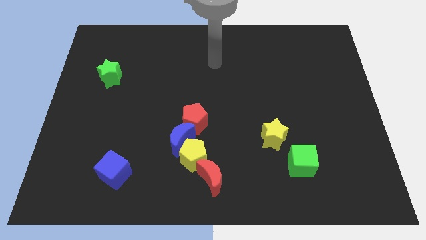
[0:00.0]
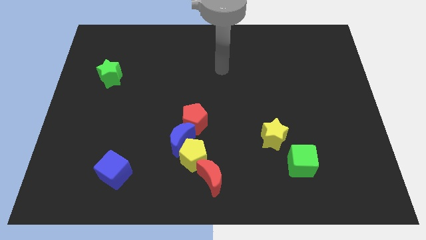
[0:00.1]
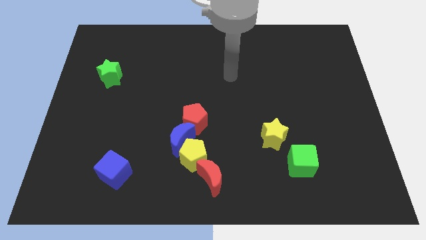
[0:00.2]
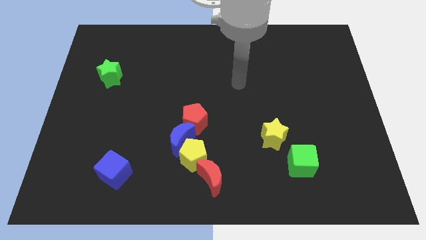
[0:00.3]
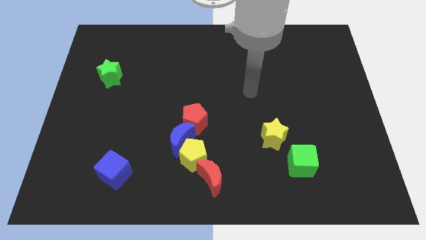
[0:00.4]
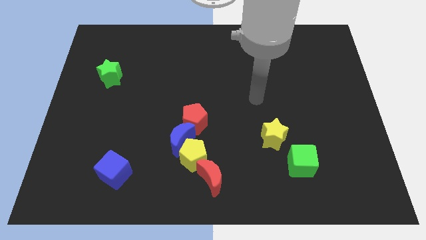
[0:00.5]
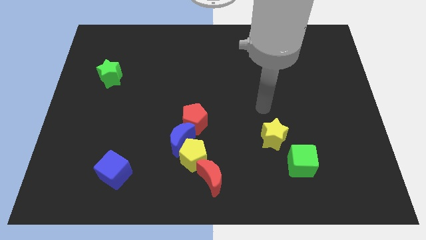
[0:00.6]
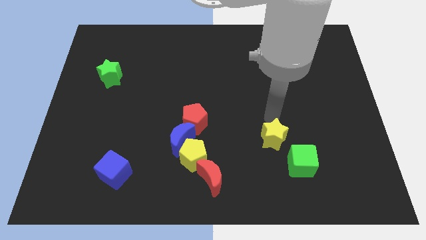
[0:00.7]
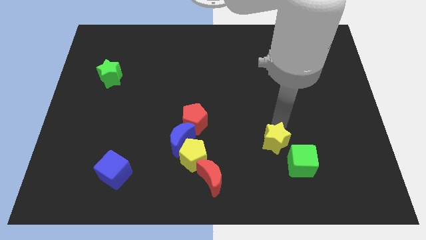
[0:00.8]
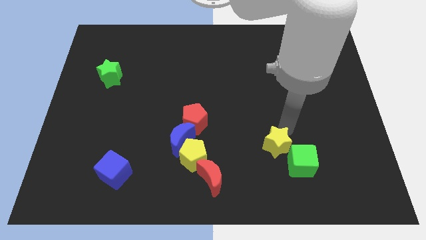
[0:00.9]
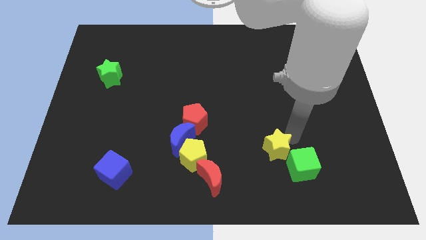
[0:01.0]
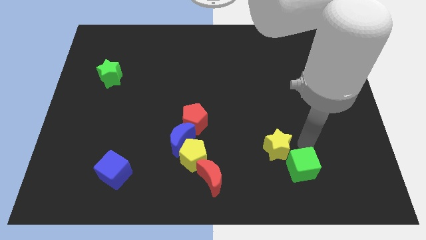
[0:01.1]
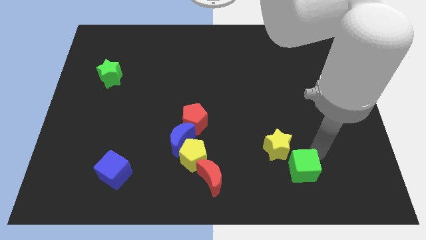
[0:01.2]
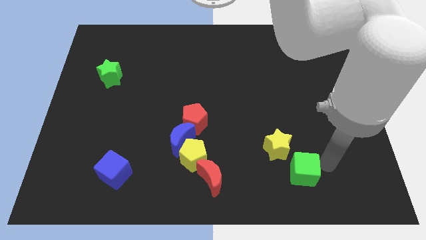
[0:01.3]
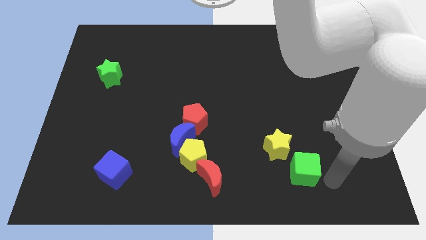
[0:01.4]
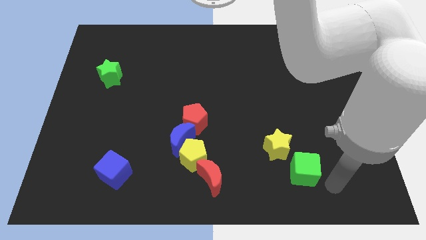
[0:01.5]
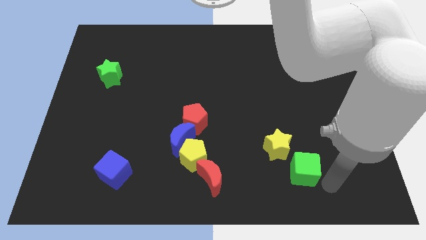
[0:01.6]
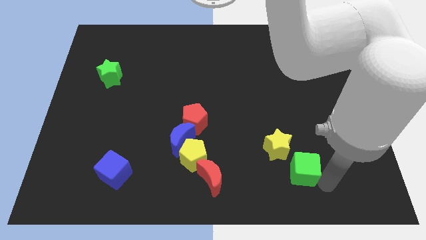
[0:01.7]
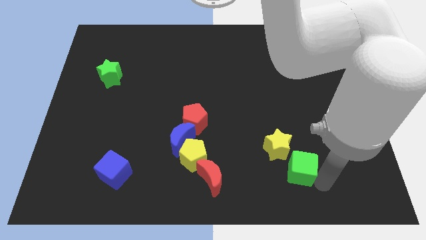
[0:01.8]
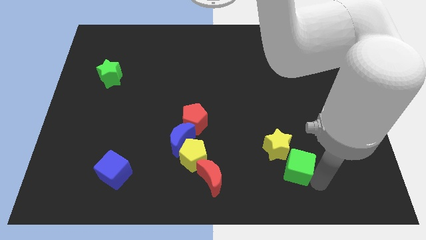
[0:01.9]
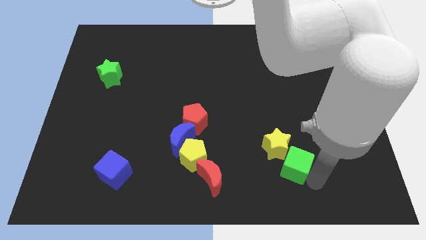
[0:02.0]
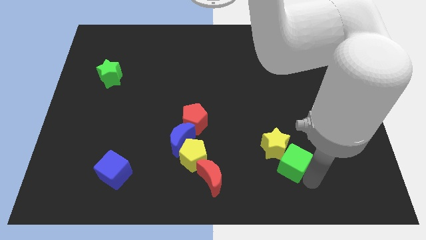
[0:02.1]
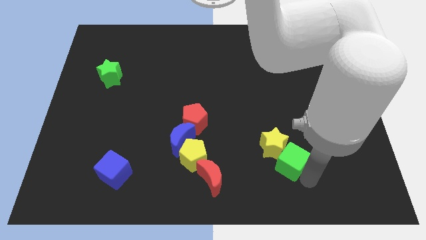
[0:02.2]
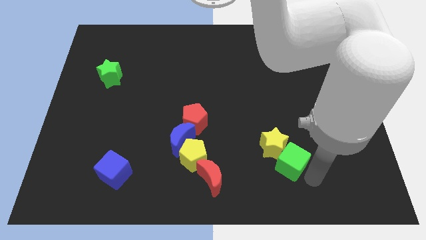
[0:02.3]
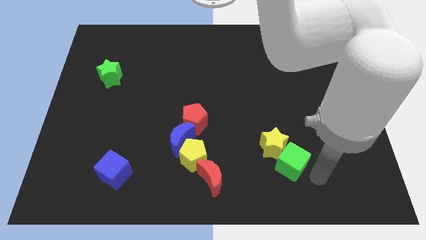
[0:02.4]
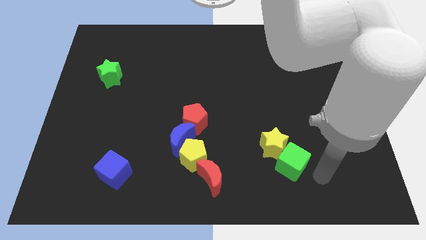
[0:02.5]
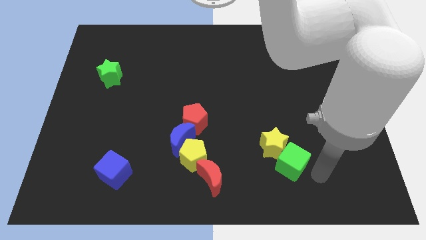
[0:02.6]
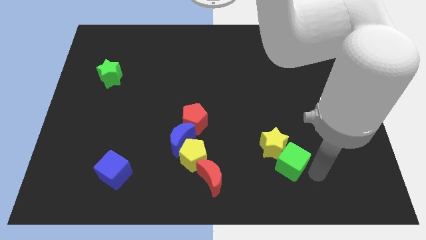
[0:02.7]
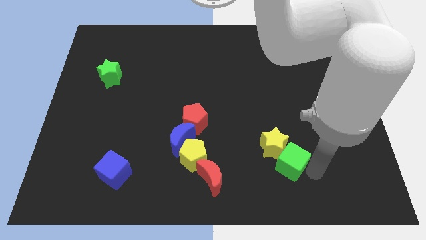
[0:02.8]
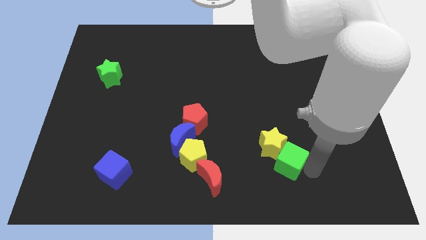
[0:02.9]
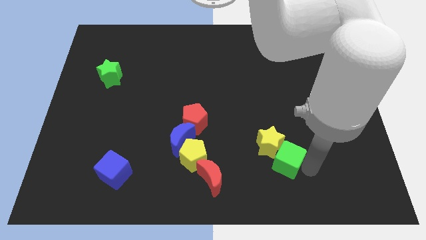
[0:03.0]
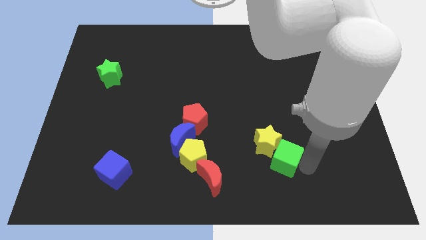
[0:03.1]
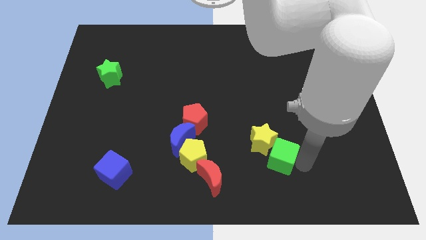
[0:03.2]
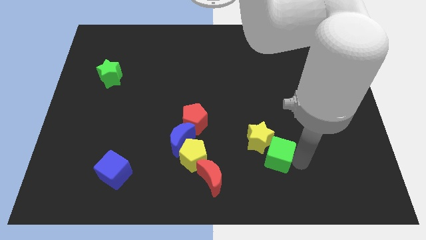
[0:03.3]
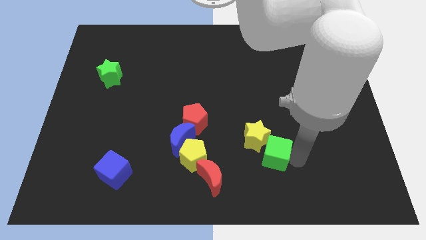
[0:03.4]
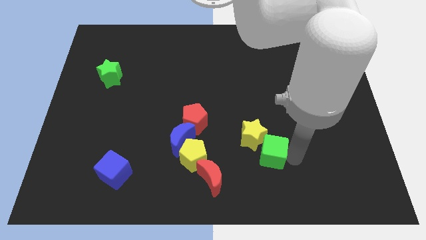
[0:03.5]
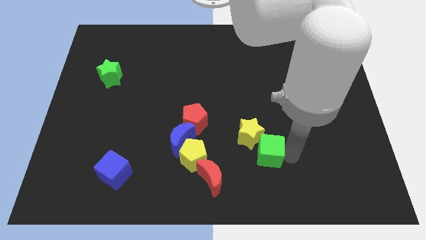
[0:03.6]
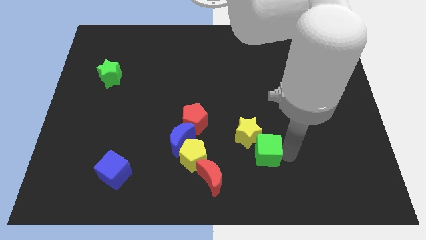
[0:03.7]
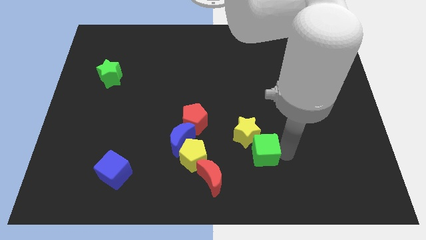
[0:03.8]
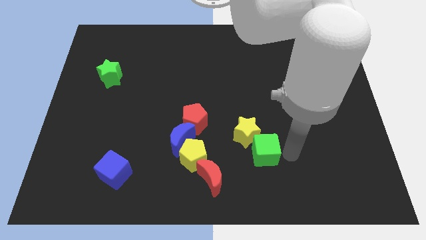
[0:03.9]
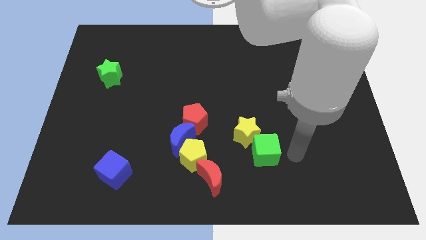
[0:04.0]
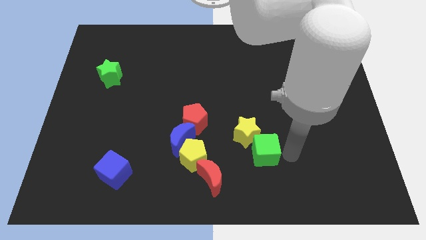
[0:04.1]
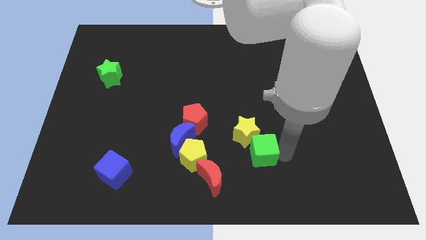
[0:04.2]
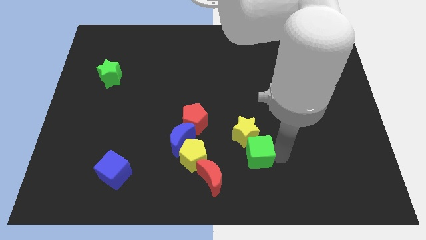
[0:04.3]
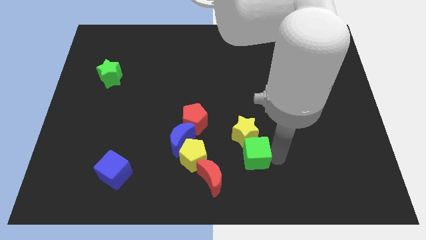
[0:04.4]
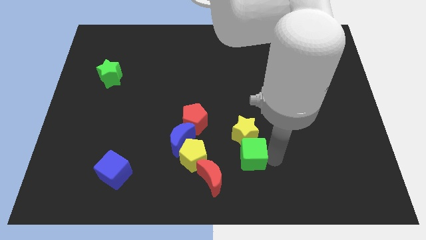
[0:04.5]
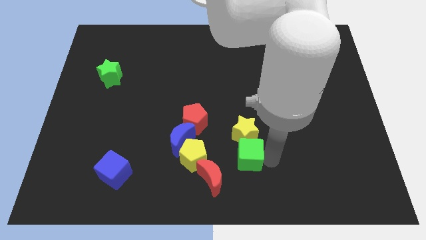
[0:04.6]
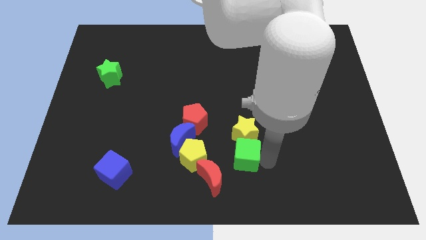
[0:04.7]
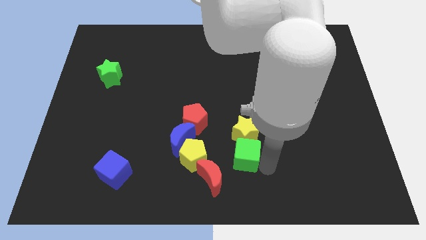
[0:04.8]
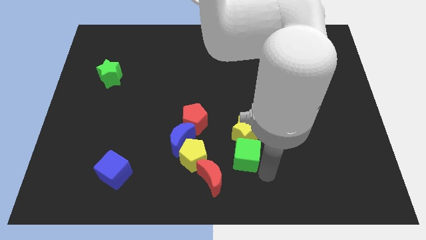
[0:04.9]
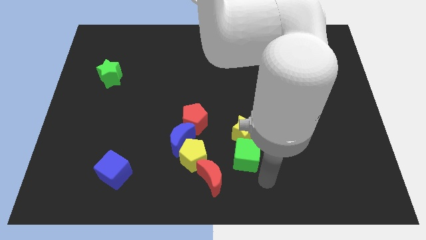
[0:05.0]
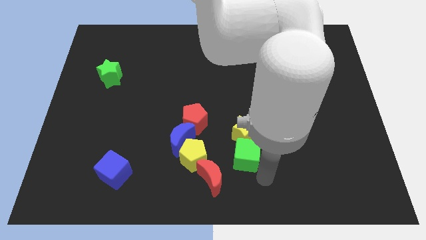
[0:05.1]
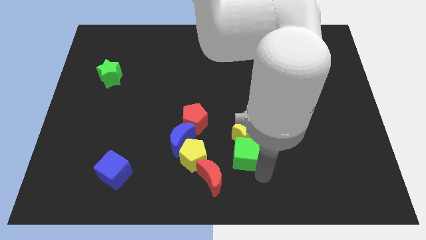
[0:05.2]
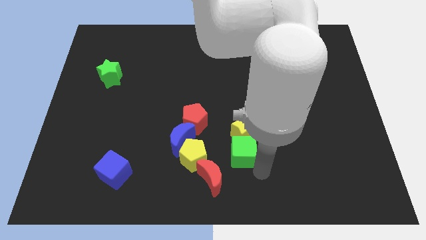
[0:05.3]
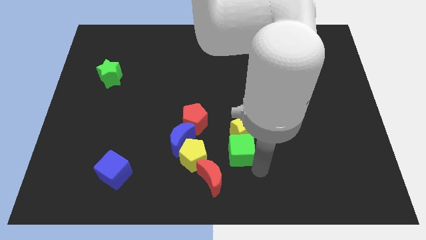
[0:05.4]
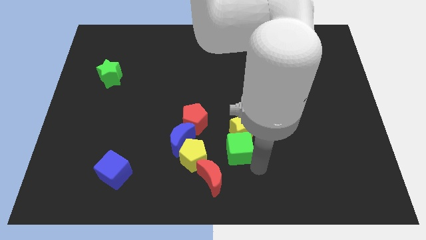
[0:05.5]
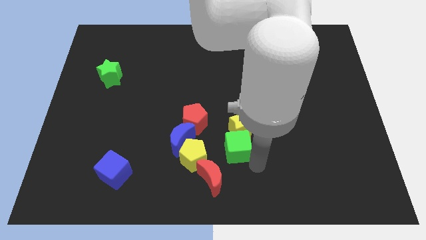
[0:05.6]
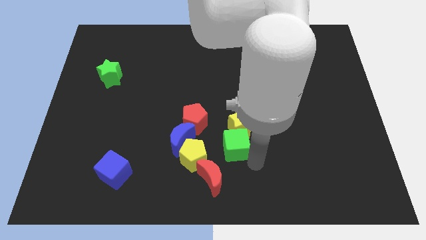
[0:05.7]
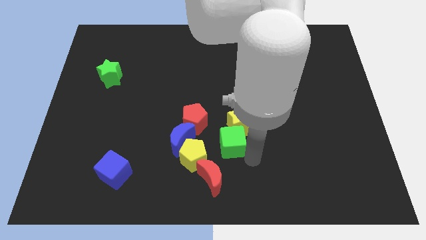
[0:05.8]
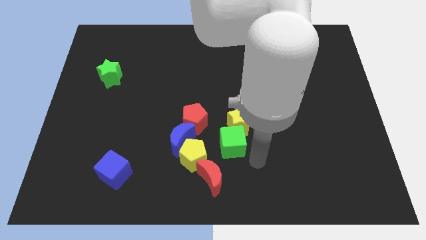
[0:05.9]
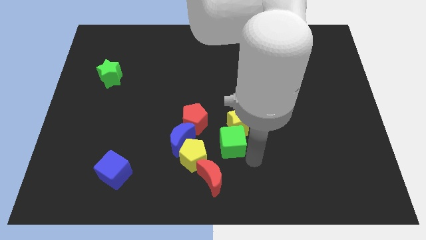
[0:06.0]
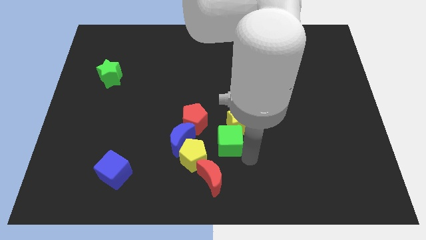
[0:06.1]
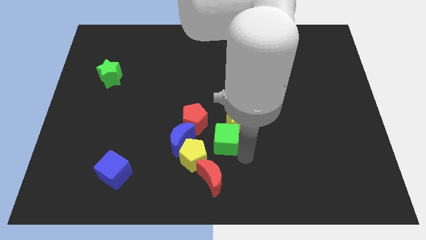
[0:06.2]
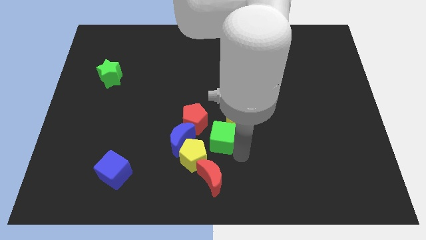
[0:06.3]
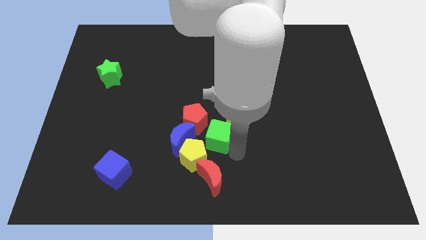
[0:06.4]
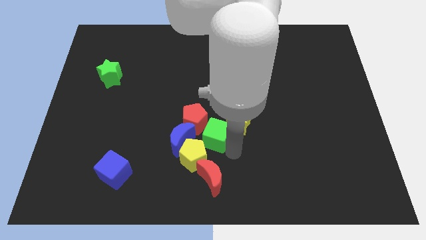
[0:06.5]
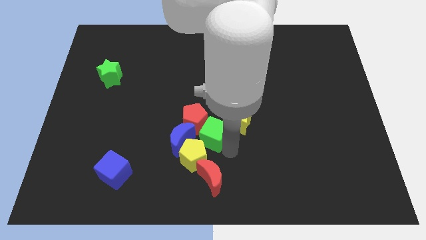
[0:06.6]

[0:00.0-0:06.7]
push the green cube close to the red pentagon
